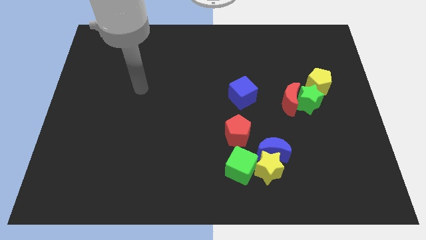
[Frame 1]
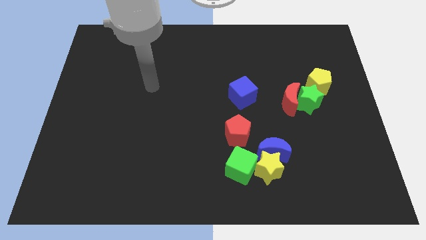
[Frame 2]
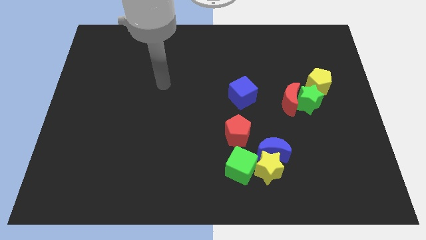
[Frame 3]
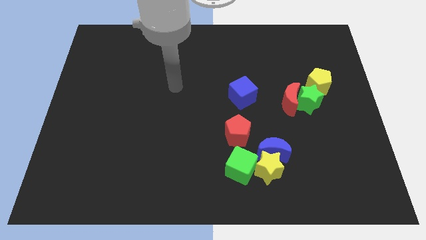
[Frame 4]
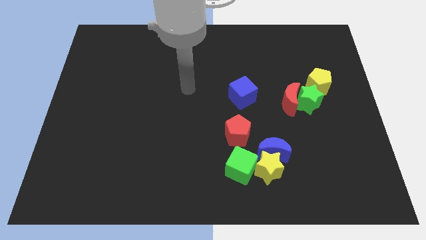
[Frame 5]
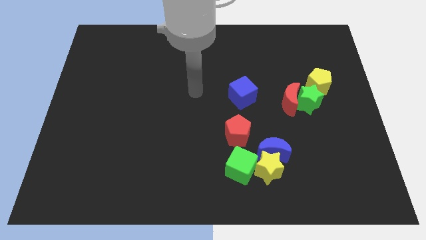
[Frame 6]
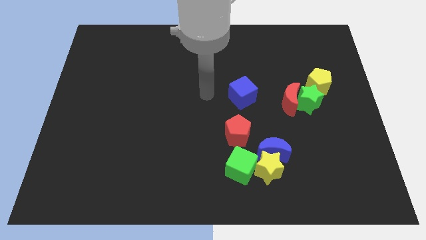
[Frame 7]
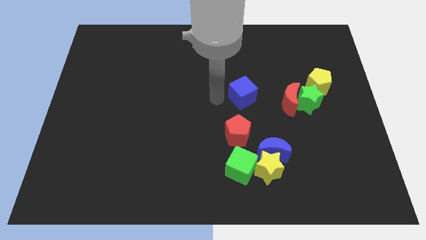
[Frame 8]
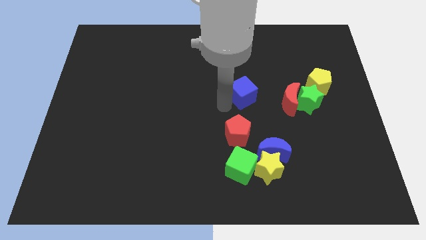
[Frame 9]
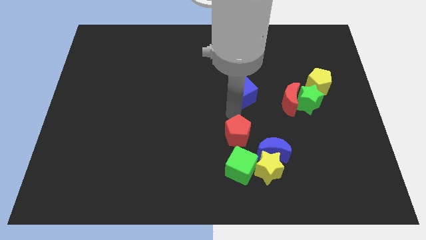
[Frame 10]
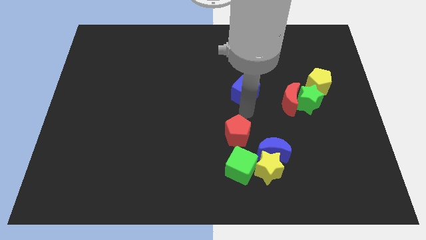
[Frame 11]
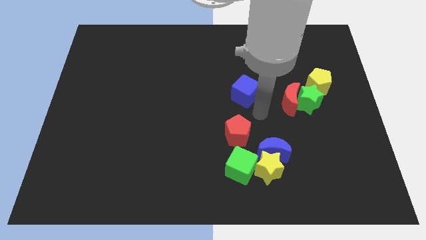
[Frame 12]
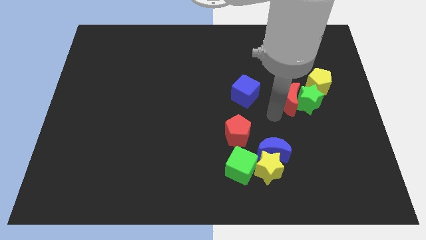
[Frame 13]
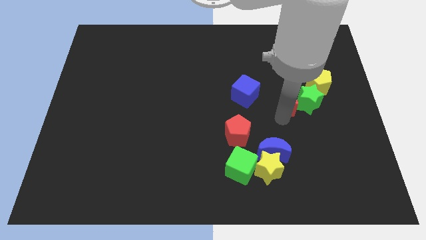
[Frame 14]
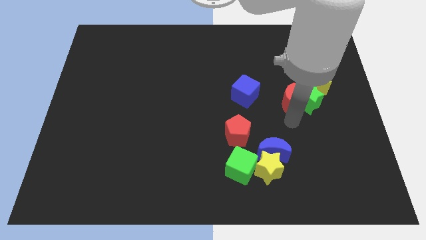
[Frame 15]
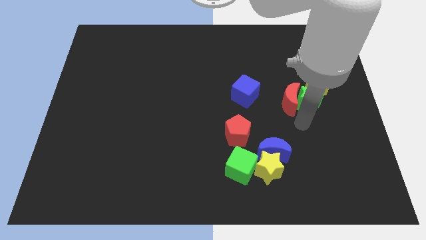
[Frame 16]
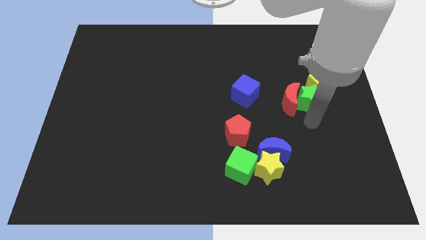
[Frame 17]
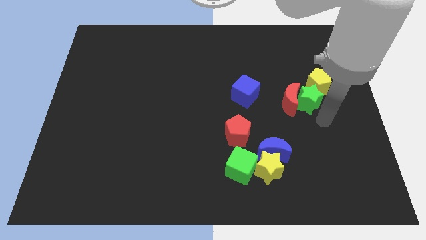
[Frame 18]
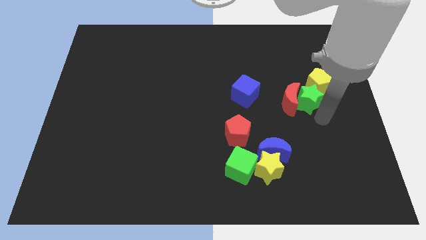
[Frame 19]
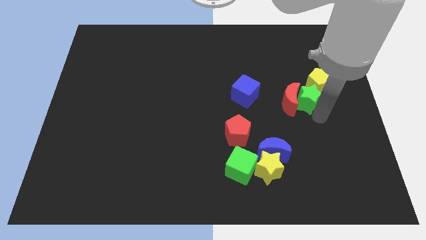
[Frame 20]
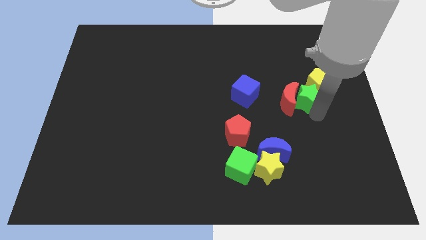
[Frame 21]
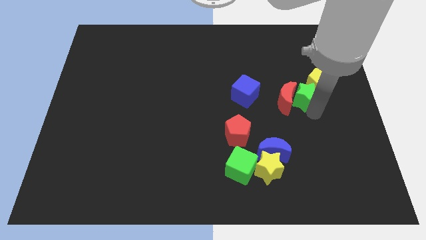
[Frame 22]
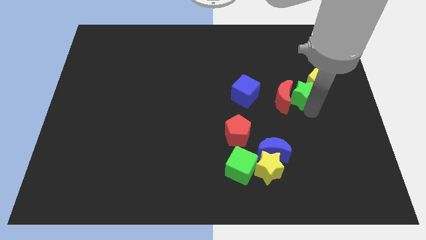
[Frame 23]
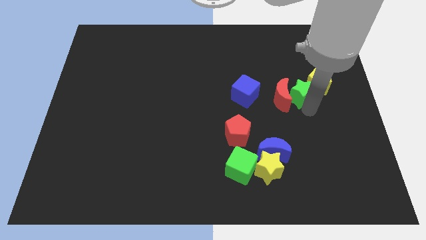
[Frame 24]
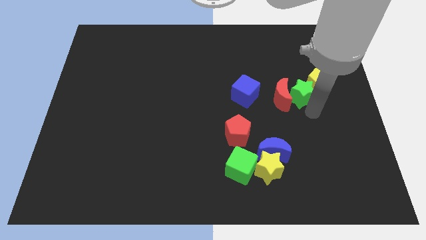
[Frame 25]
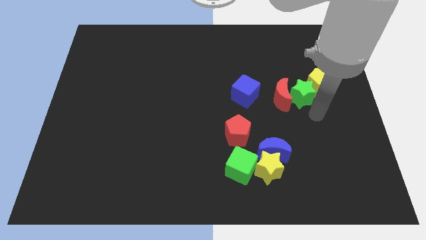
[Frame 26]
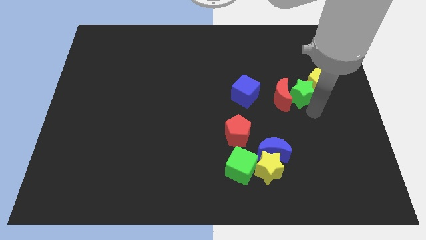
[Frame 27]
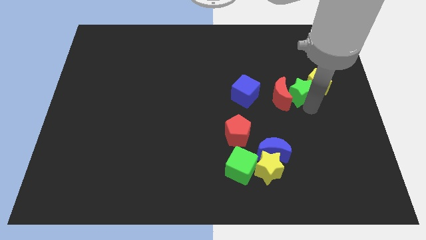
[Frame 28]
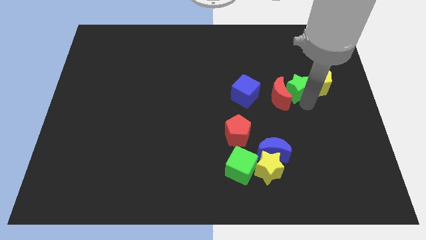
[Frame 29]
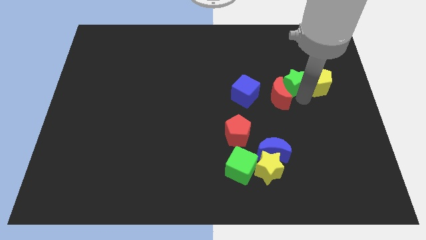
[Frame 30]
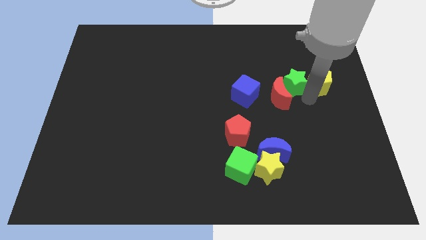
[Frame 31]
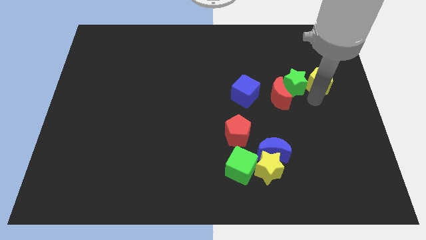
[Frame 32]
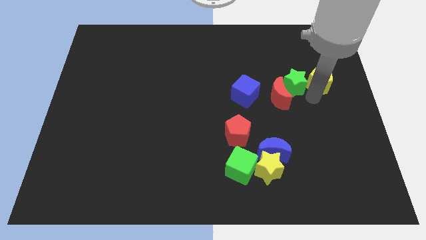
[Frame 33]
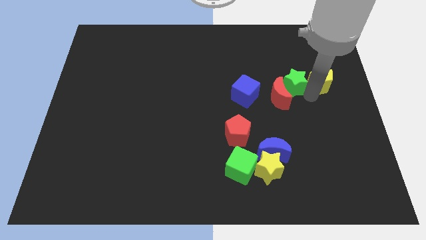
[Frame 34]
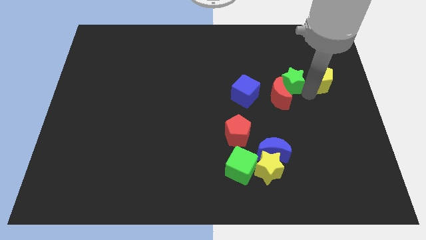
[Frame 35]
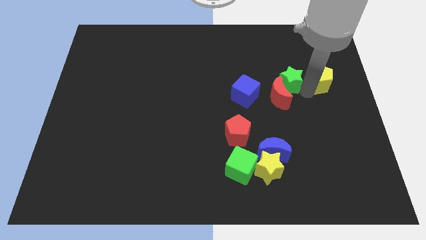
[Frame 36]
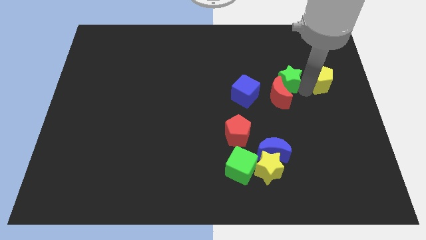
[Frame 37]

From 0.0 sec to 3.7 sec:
slightly push the green star upwards and to the left

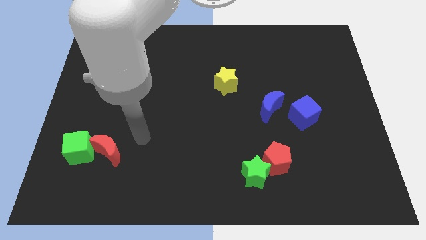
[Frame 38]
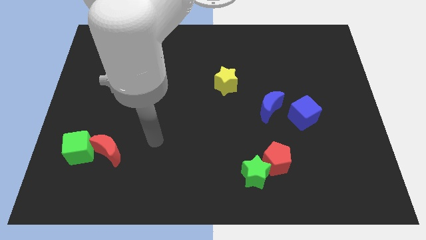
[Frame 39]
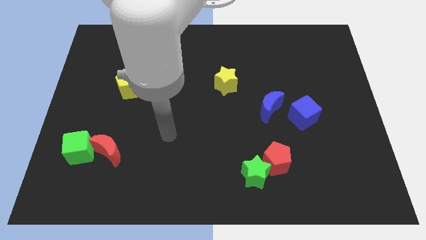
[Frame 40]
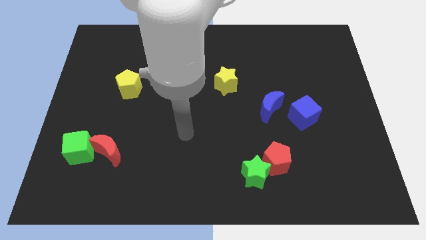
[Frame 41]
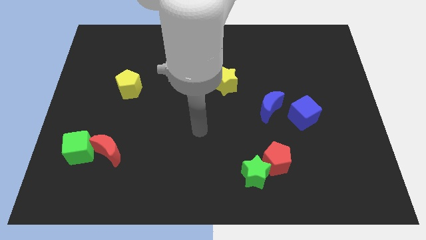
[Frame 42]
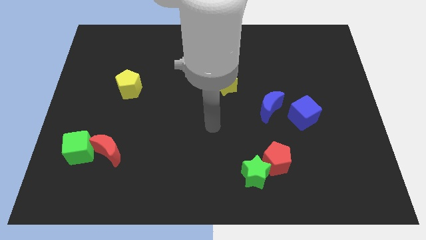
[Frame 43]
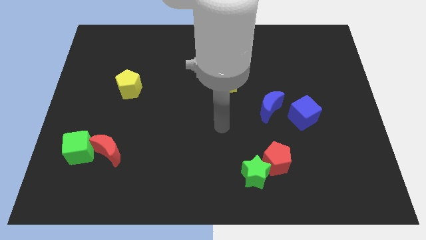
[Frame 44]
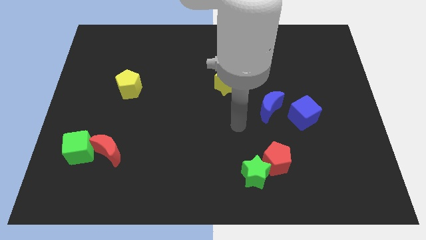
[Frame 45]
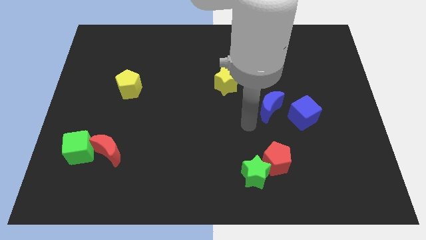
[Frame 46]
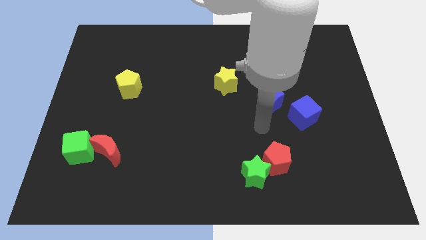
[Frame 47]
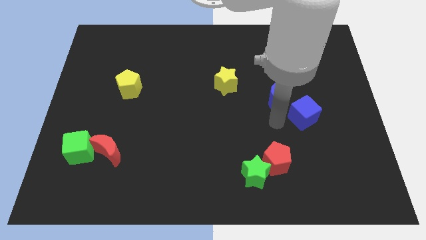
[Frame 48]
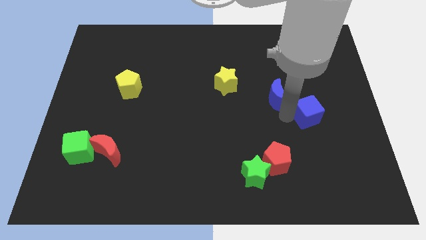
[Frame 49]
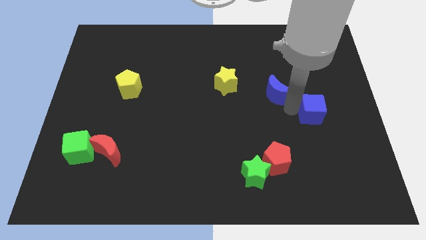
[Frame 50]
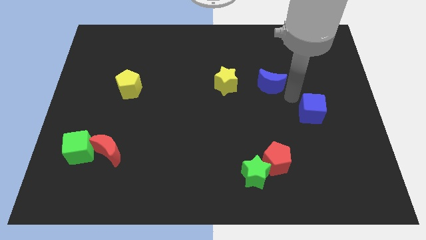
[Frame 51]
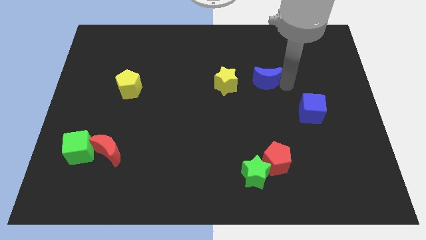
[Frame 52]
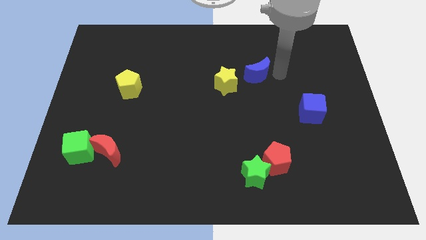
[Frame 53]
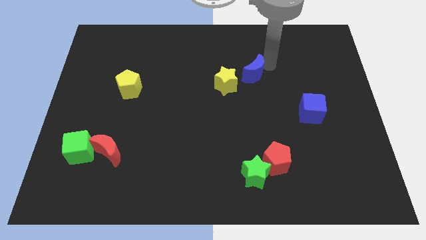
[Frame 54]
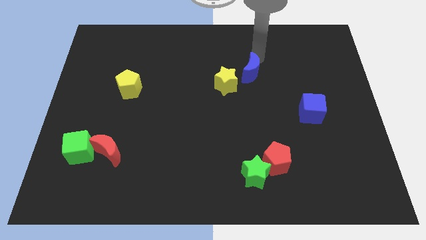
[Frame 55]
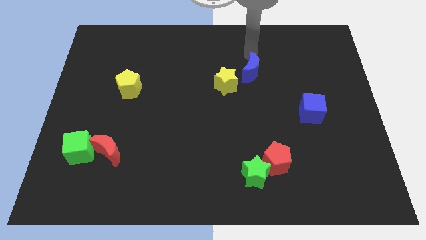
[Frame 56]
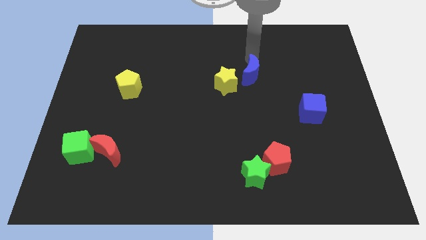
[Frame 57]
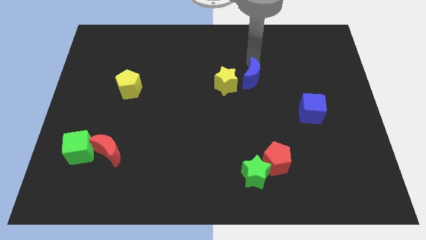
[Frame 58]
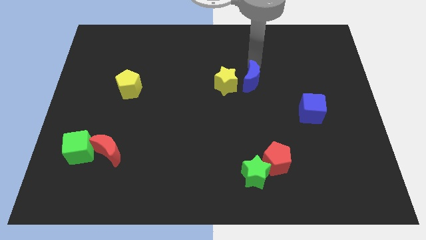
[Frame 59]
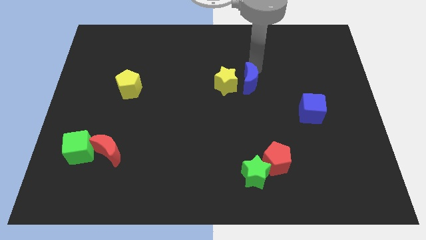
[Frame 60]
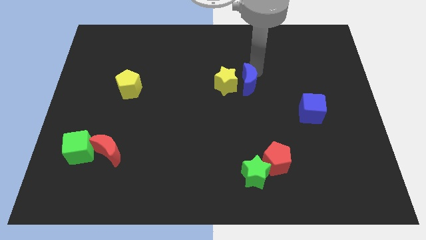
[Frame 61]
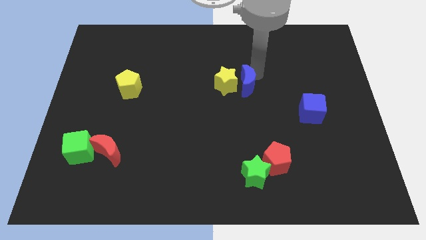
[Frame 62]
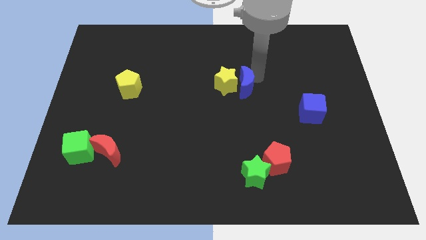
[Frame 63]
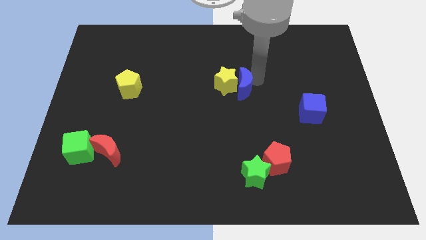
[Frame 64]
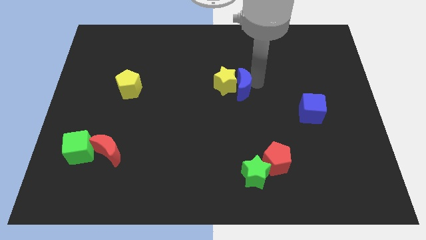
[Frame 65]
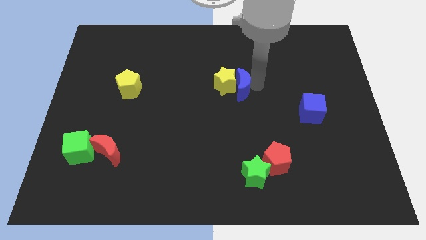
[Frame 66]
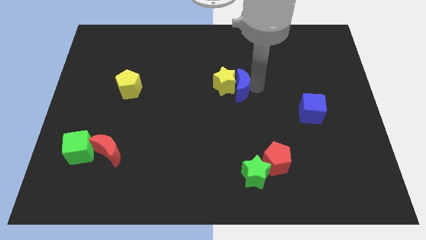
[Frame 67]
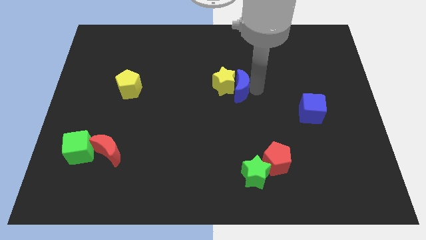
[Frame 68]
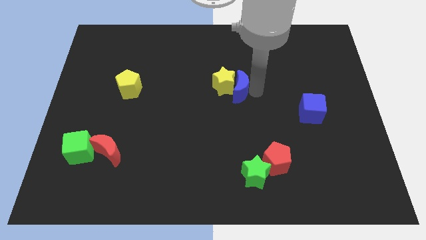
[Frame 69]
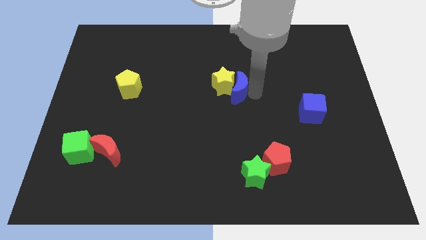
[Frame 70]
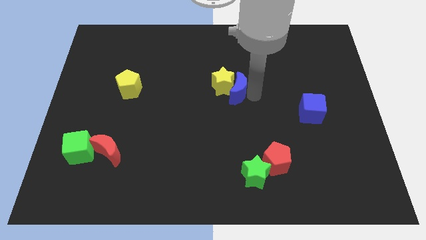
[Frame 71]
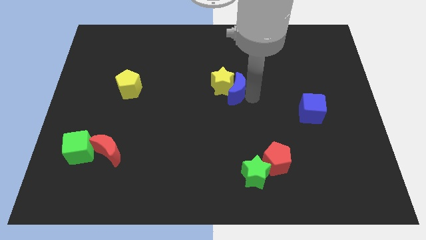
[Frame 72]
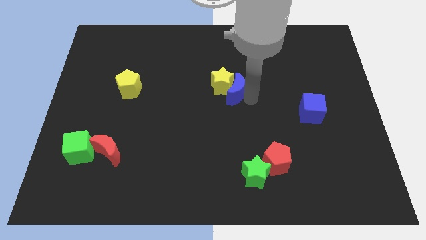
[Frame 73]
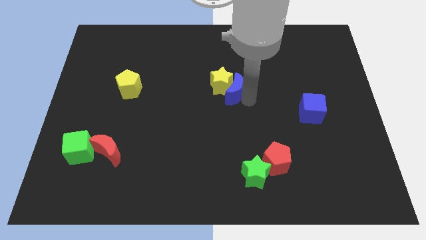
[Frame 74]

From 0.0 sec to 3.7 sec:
push the blue moon a little bit left

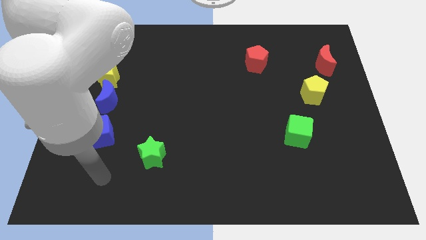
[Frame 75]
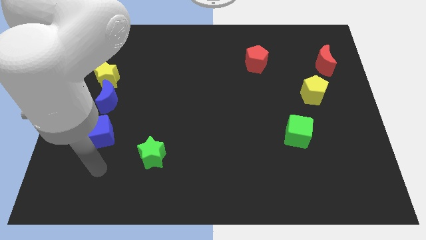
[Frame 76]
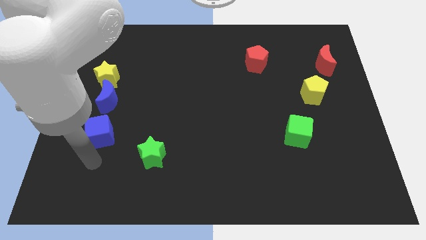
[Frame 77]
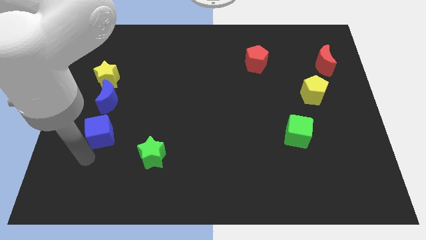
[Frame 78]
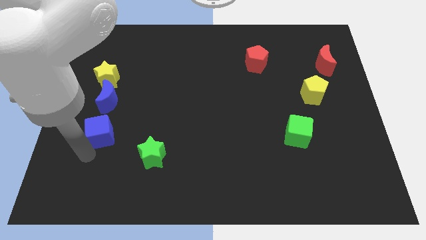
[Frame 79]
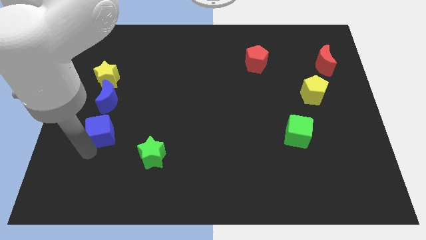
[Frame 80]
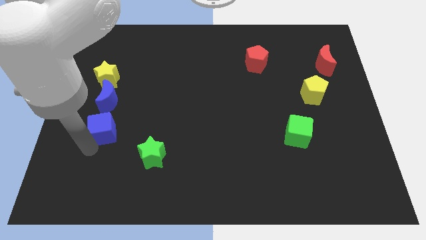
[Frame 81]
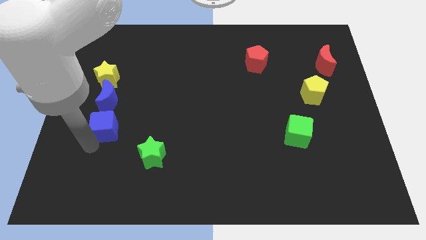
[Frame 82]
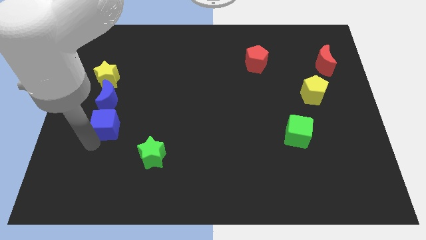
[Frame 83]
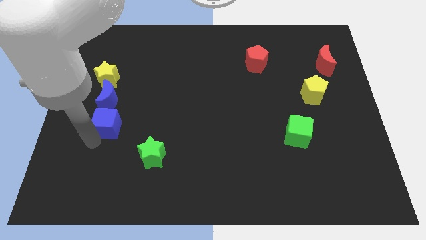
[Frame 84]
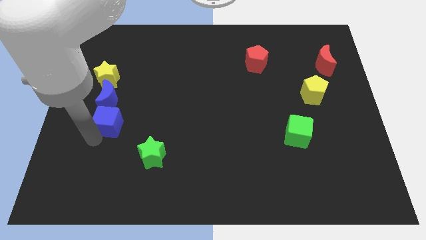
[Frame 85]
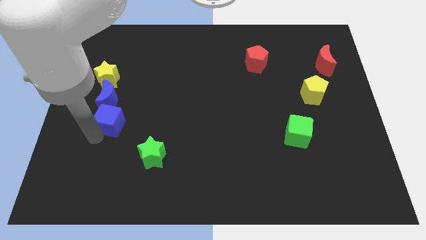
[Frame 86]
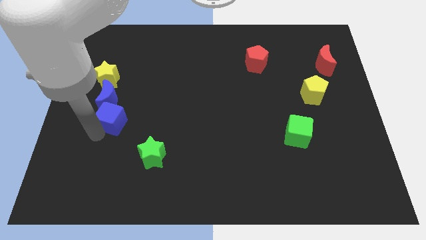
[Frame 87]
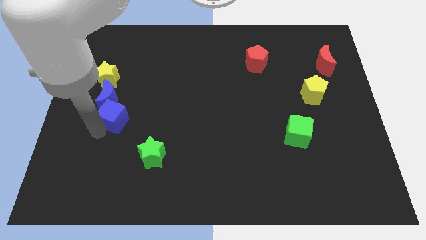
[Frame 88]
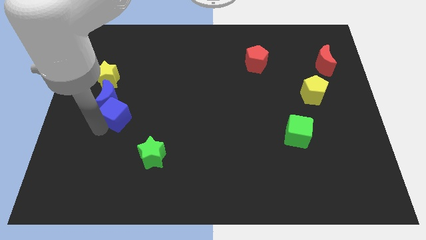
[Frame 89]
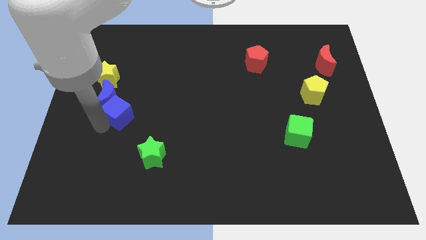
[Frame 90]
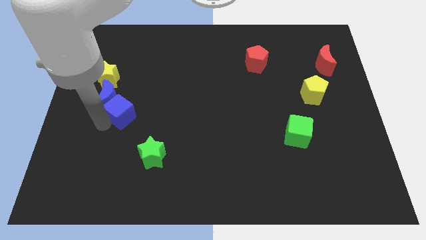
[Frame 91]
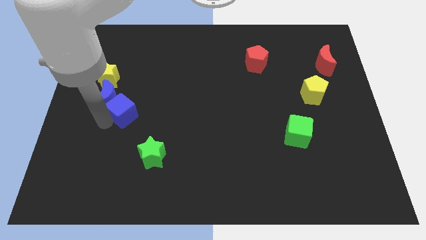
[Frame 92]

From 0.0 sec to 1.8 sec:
slide the blue cube a little bit diagonally upwards and to the right
